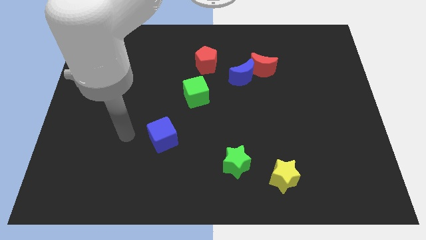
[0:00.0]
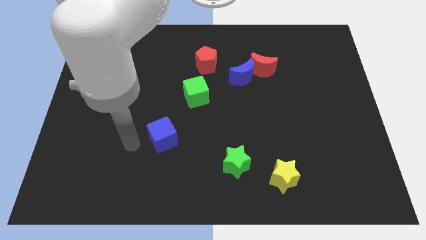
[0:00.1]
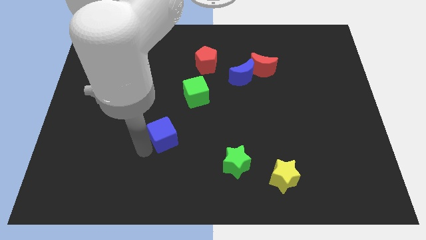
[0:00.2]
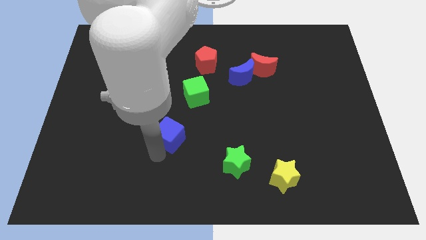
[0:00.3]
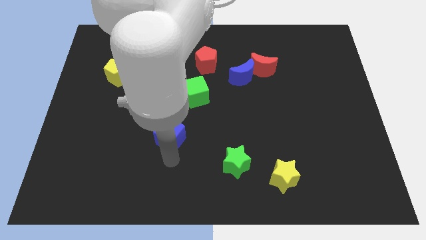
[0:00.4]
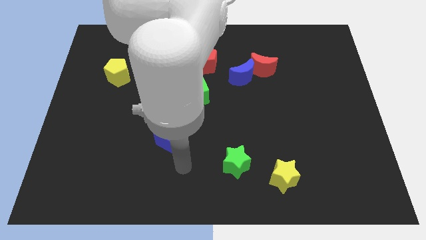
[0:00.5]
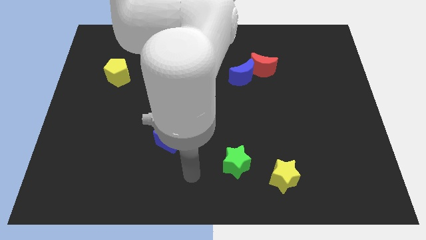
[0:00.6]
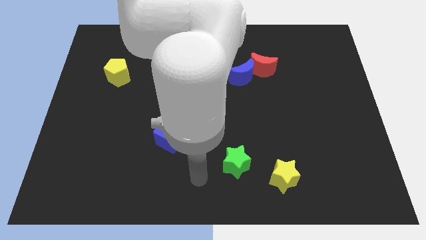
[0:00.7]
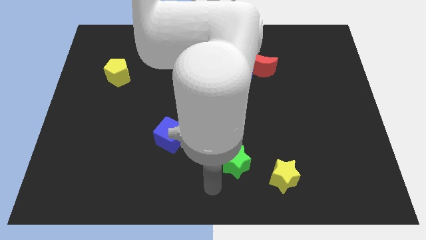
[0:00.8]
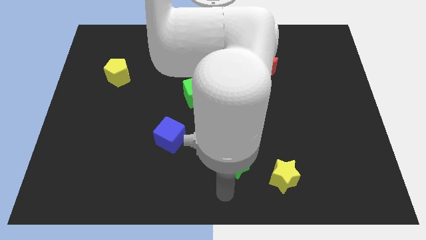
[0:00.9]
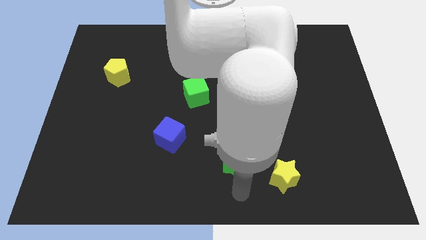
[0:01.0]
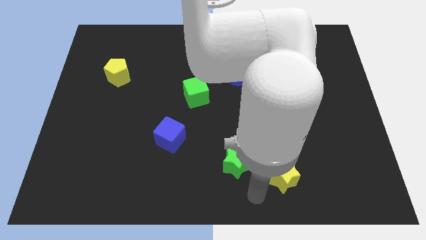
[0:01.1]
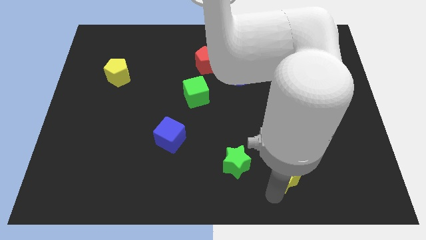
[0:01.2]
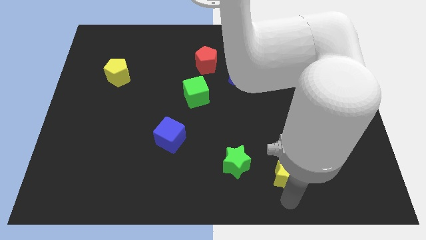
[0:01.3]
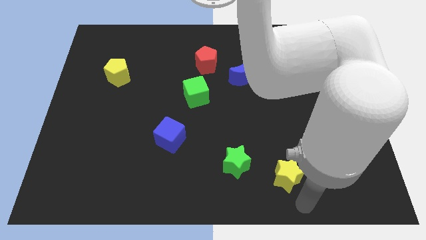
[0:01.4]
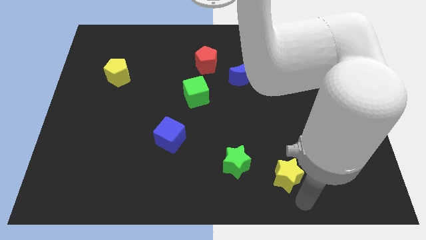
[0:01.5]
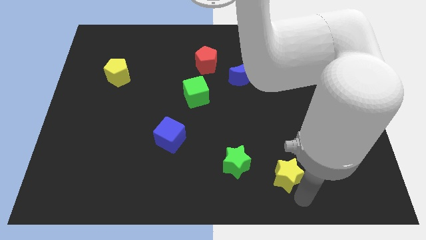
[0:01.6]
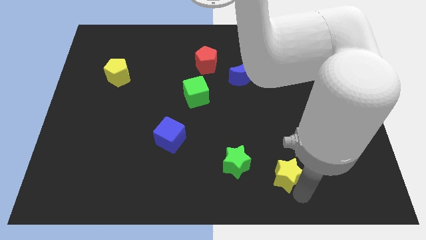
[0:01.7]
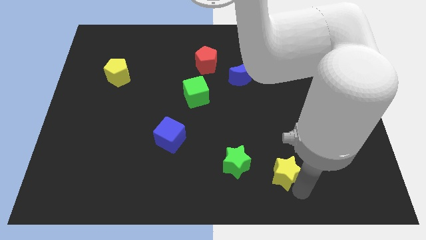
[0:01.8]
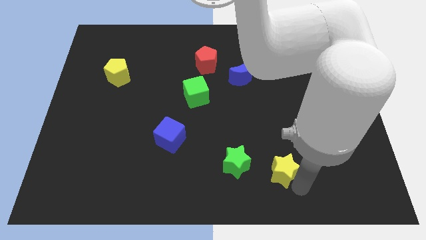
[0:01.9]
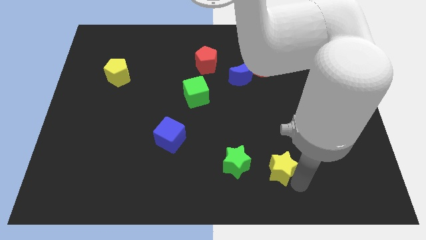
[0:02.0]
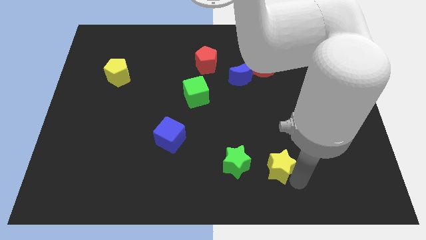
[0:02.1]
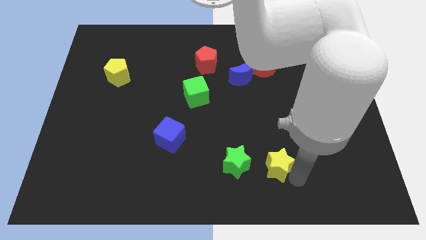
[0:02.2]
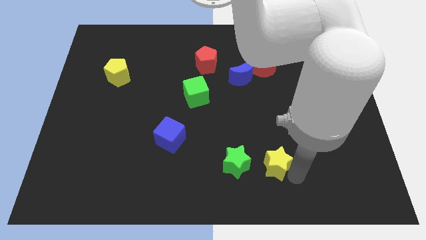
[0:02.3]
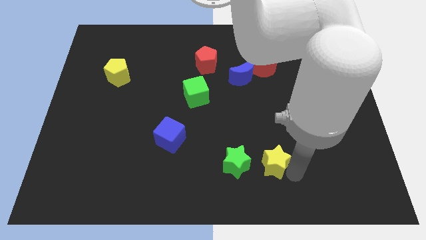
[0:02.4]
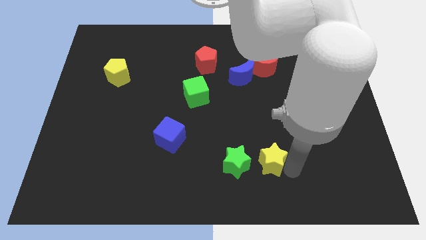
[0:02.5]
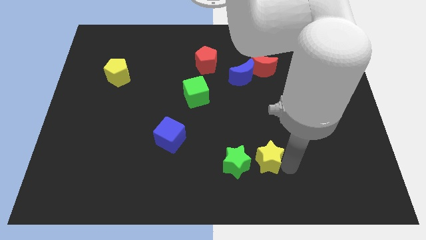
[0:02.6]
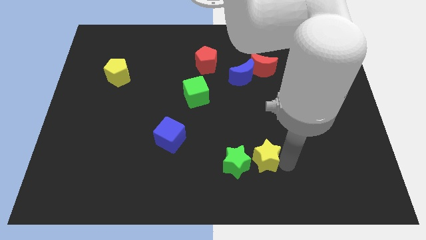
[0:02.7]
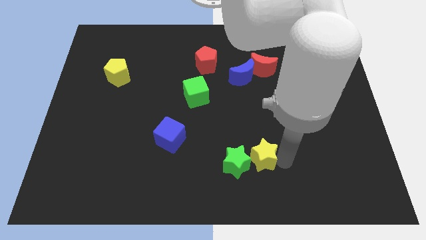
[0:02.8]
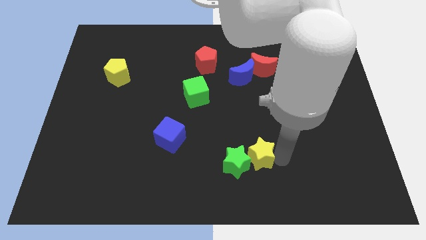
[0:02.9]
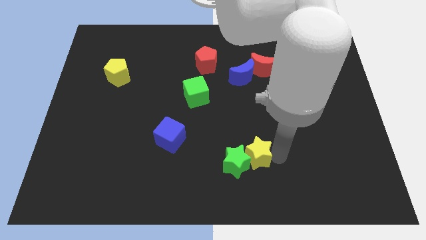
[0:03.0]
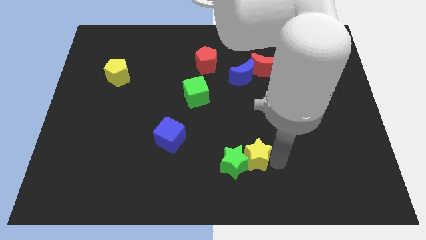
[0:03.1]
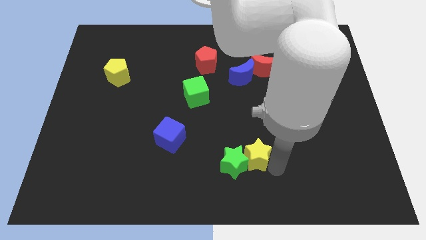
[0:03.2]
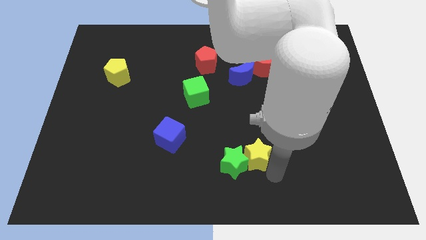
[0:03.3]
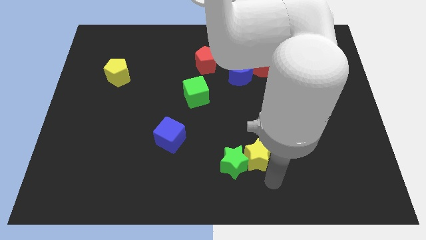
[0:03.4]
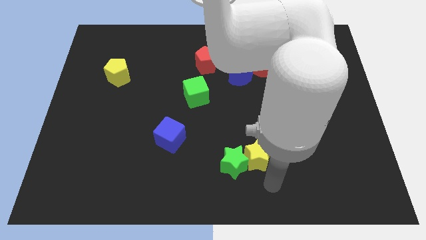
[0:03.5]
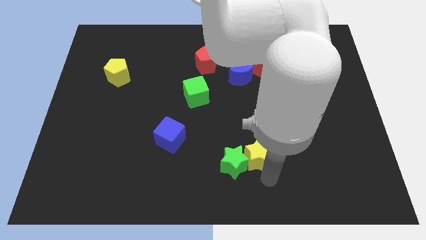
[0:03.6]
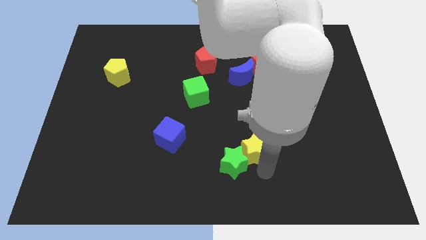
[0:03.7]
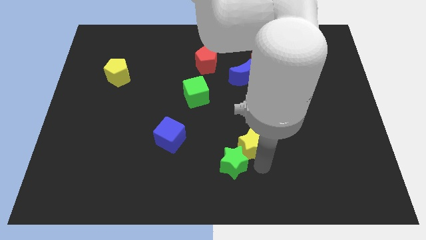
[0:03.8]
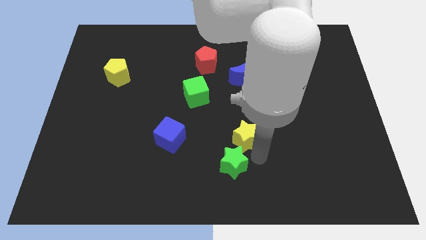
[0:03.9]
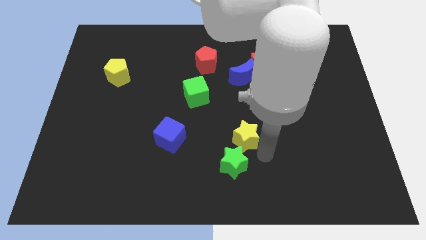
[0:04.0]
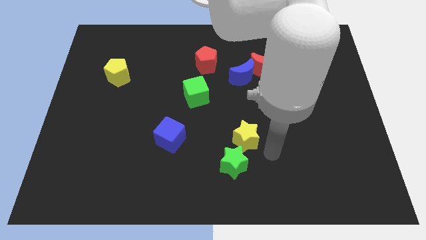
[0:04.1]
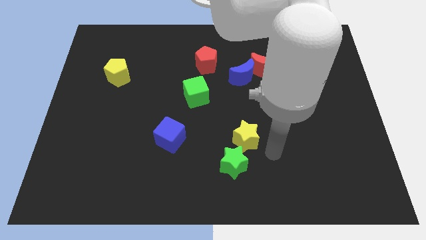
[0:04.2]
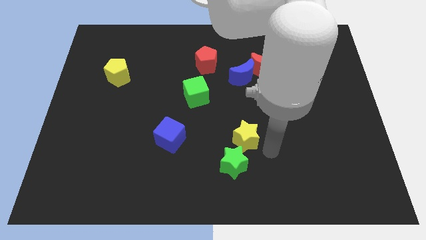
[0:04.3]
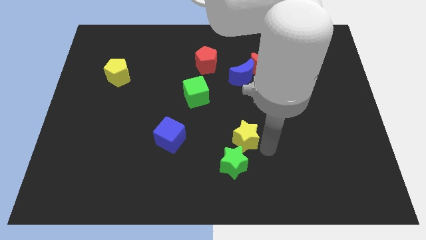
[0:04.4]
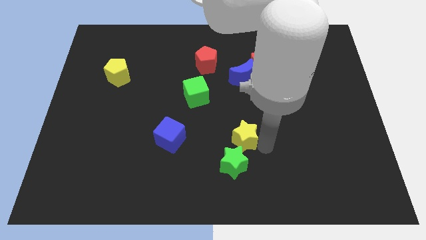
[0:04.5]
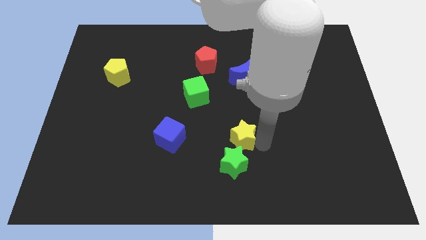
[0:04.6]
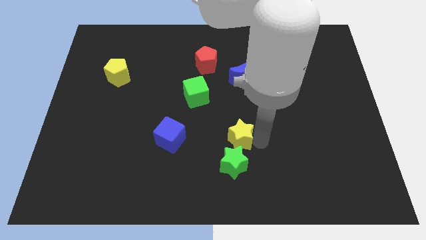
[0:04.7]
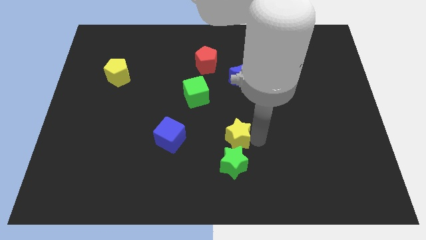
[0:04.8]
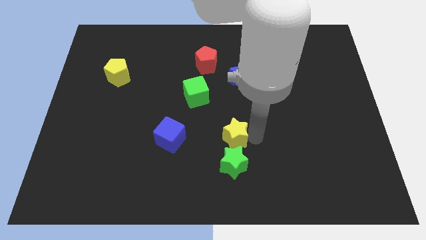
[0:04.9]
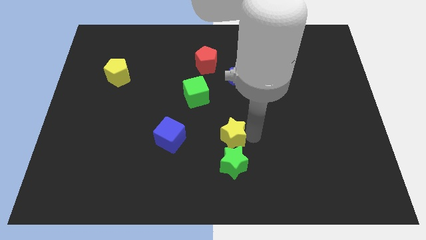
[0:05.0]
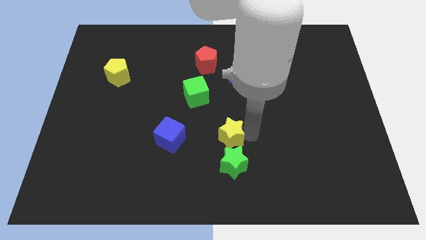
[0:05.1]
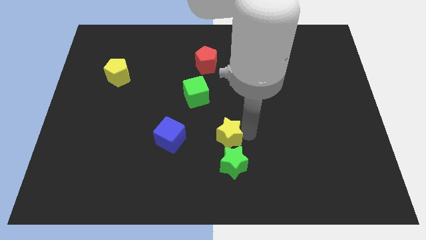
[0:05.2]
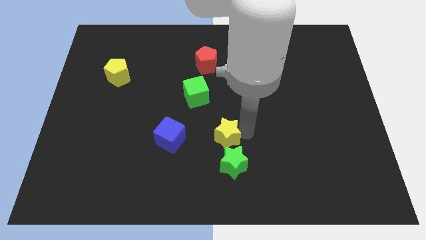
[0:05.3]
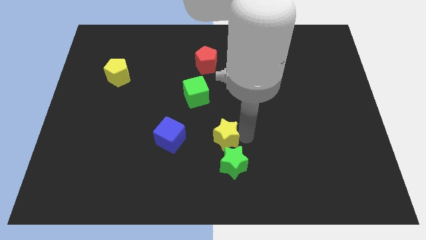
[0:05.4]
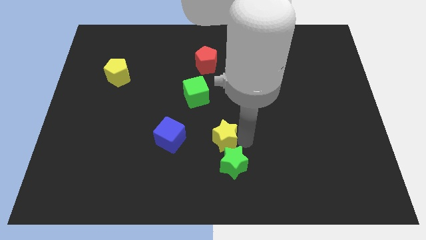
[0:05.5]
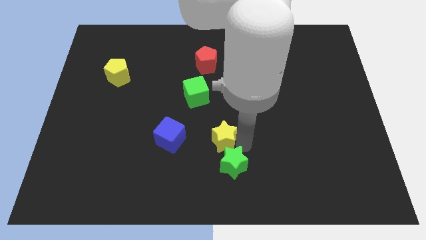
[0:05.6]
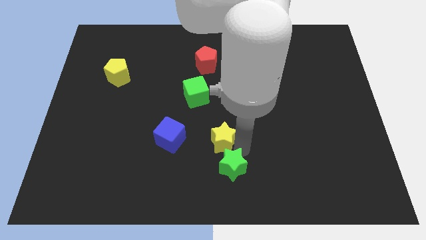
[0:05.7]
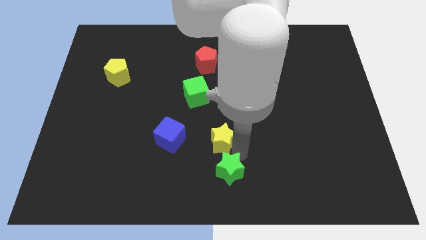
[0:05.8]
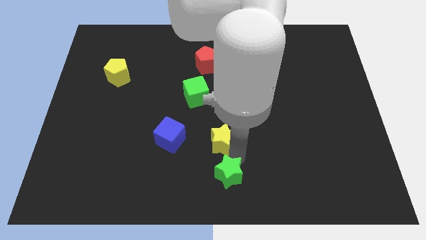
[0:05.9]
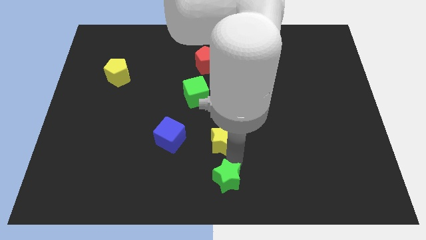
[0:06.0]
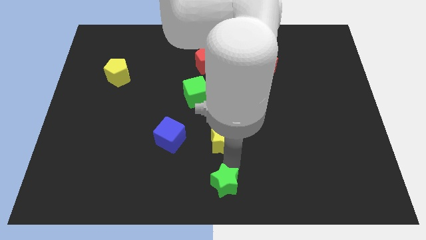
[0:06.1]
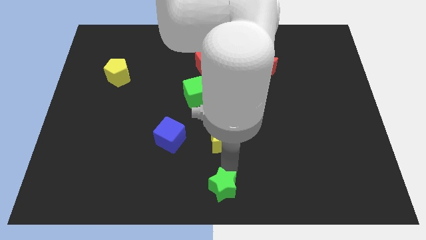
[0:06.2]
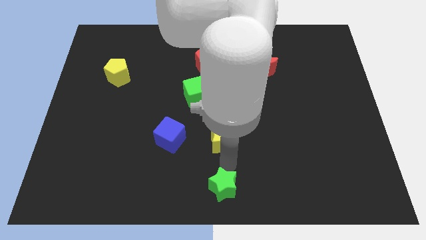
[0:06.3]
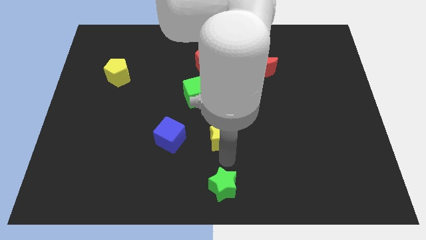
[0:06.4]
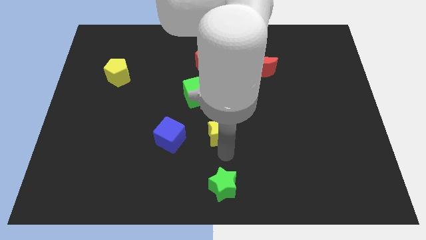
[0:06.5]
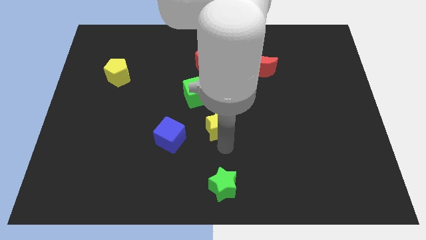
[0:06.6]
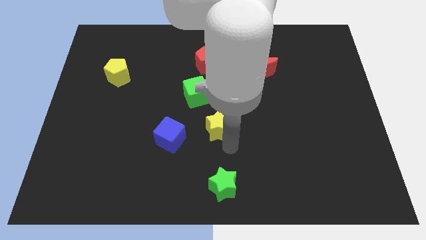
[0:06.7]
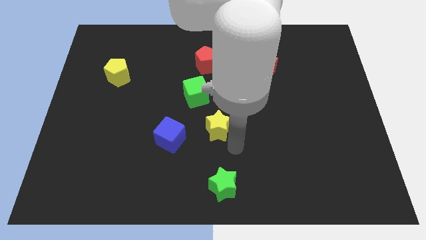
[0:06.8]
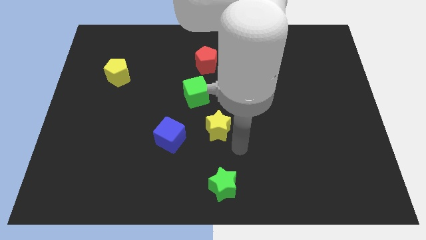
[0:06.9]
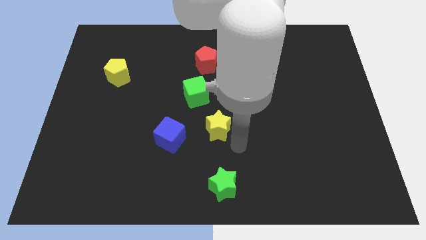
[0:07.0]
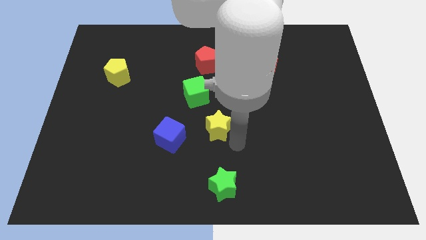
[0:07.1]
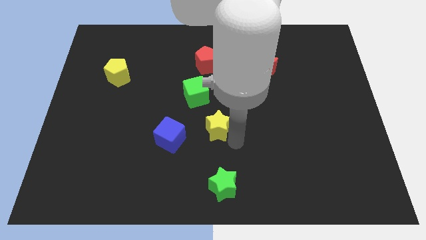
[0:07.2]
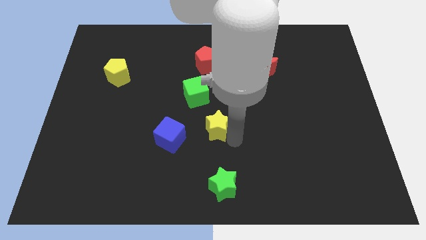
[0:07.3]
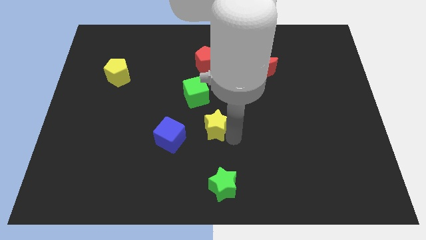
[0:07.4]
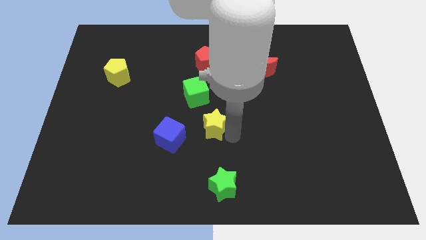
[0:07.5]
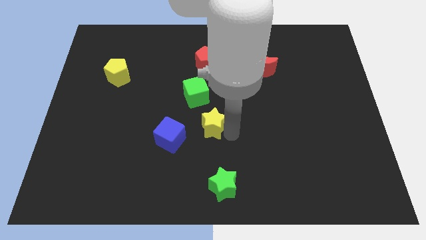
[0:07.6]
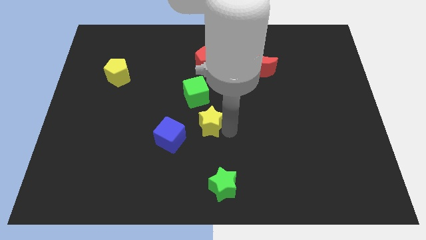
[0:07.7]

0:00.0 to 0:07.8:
push the yellow star up and to the left diagonally

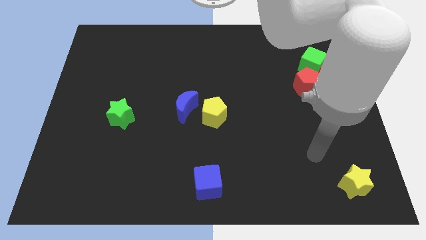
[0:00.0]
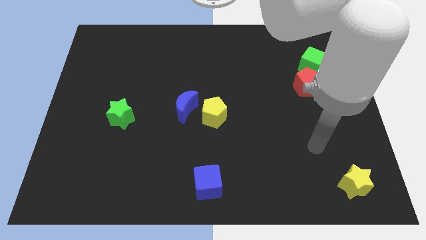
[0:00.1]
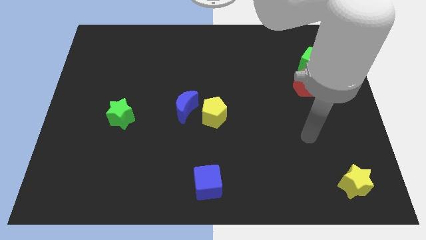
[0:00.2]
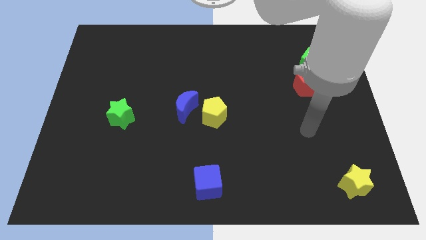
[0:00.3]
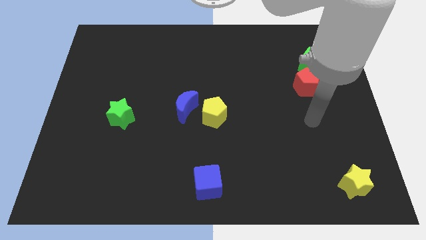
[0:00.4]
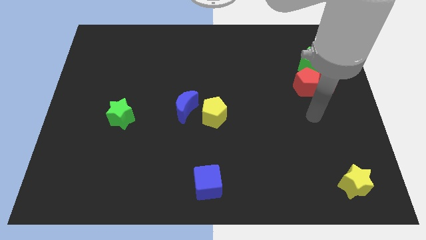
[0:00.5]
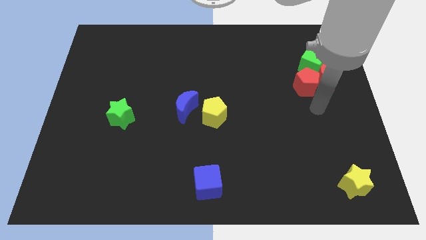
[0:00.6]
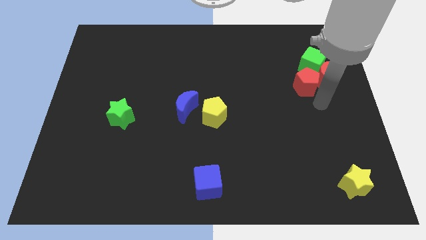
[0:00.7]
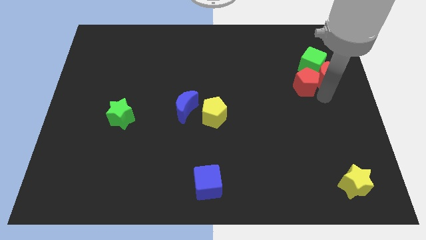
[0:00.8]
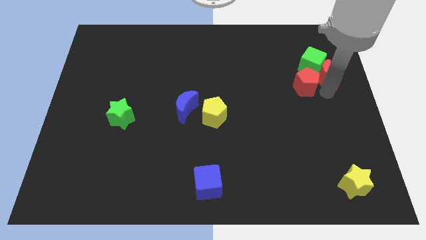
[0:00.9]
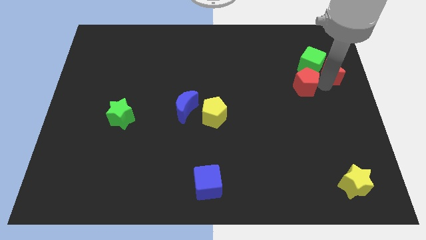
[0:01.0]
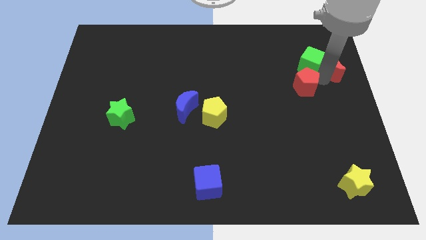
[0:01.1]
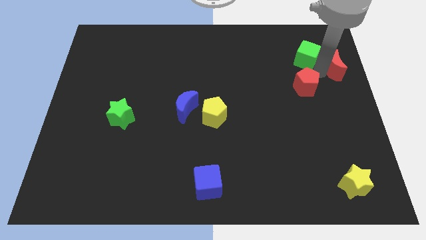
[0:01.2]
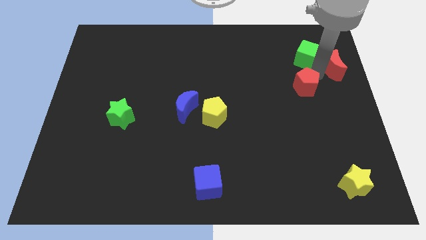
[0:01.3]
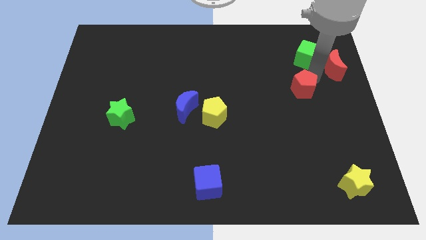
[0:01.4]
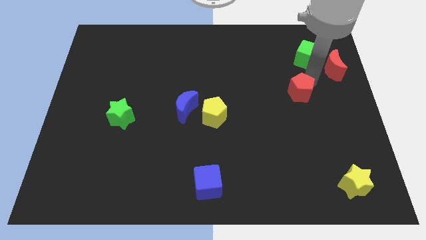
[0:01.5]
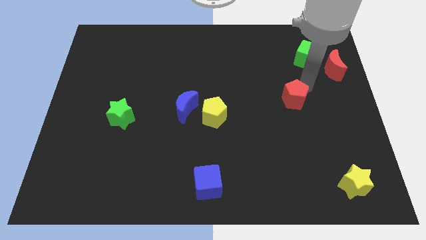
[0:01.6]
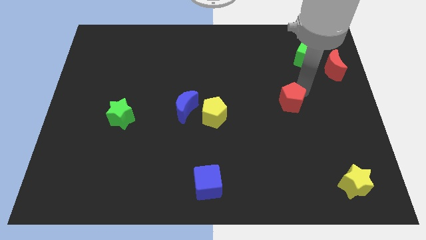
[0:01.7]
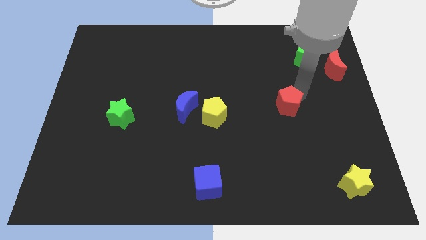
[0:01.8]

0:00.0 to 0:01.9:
slightly slide the red pentagon diagonally down and to the left
